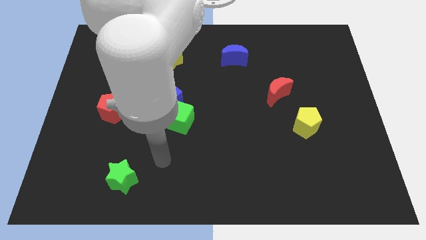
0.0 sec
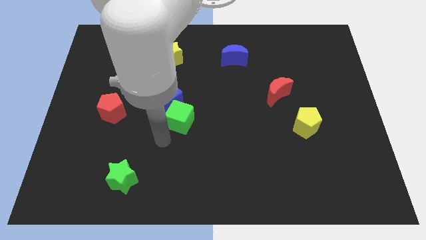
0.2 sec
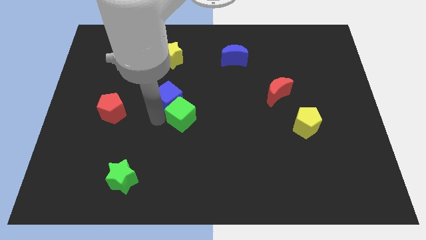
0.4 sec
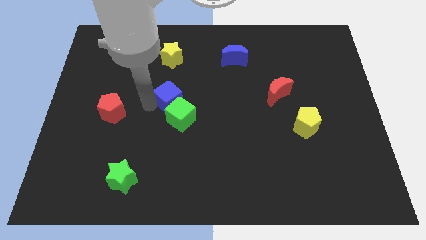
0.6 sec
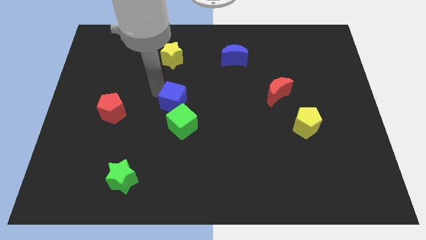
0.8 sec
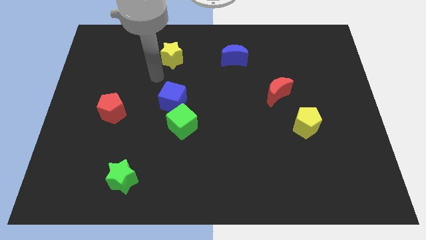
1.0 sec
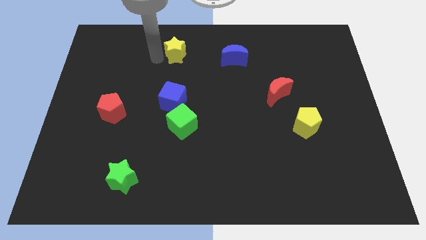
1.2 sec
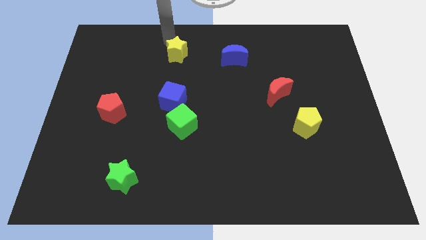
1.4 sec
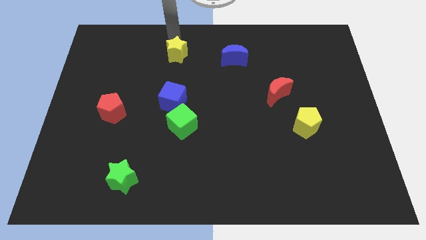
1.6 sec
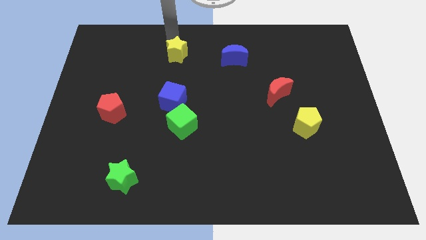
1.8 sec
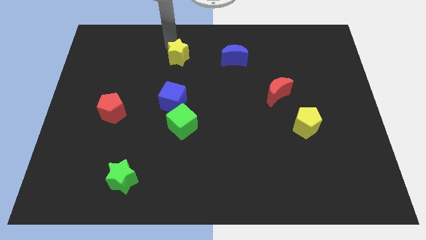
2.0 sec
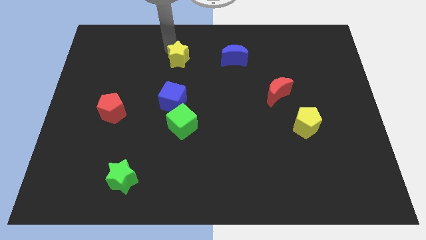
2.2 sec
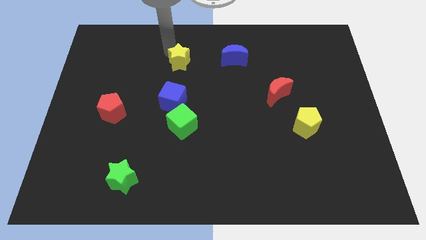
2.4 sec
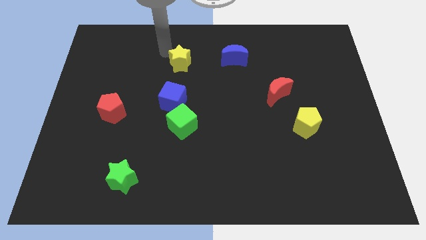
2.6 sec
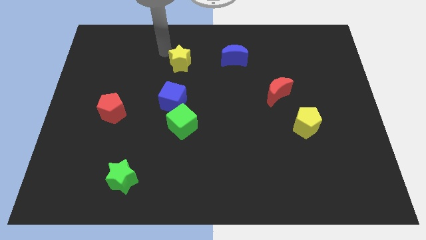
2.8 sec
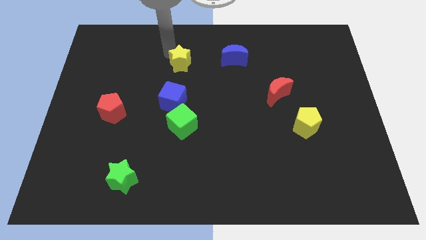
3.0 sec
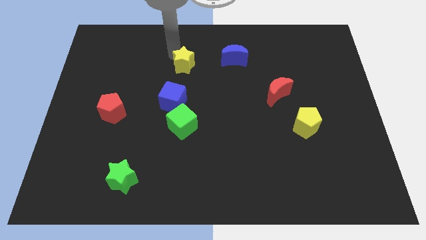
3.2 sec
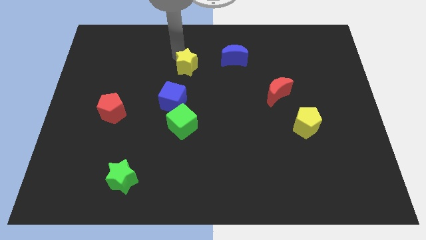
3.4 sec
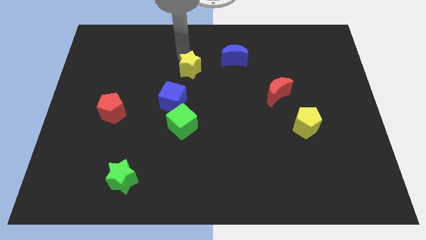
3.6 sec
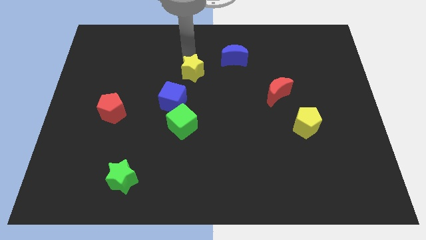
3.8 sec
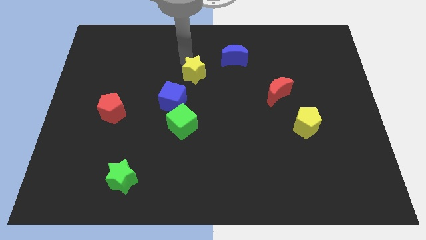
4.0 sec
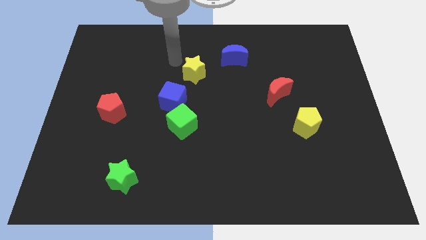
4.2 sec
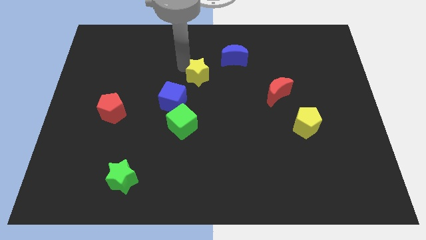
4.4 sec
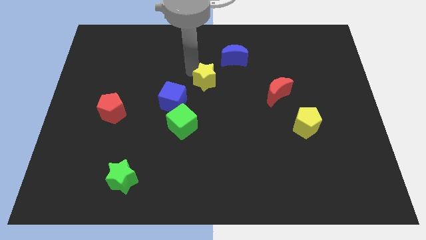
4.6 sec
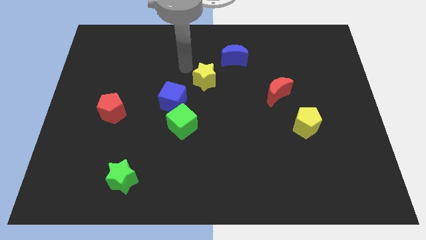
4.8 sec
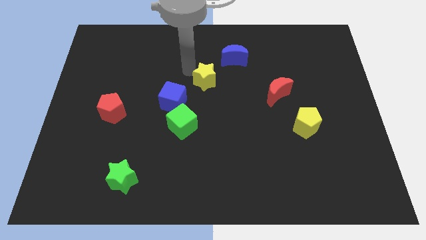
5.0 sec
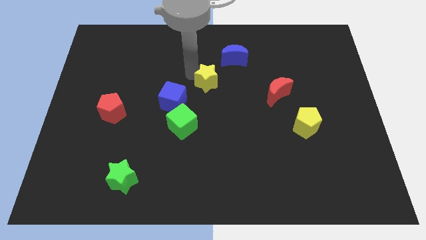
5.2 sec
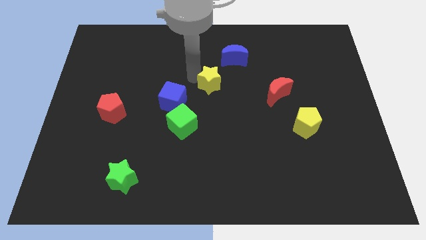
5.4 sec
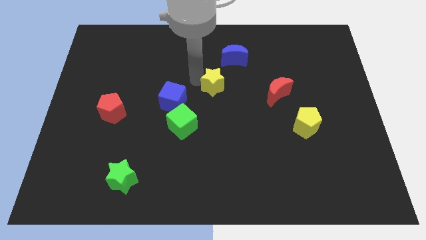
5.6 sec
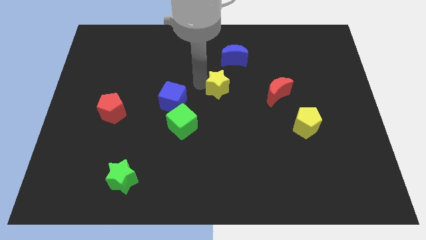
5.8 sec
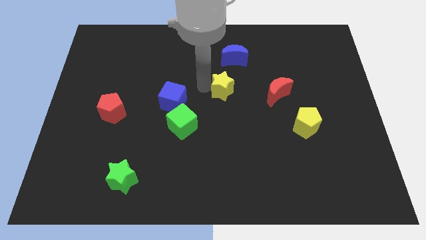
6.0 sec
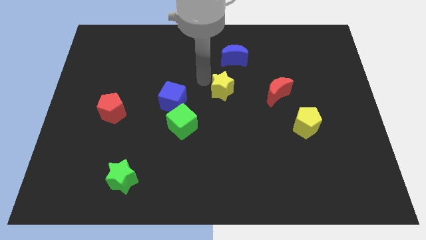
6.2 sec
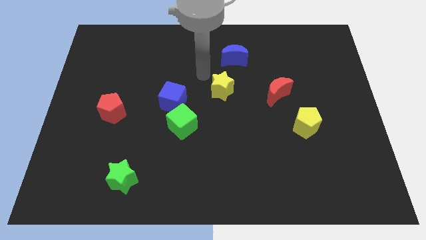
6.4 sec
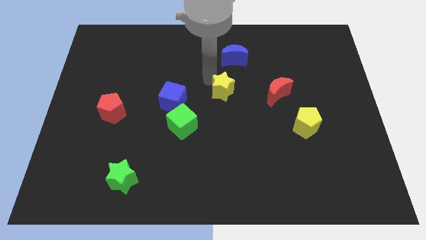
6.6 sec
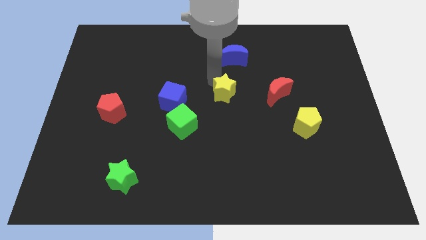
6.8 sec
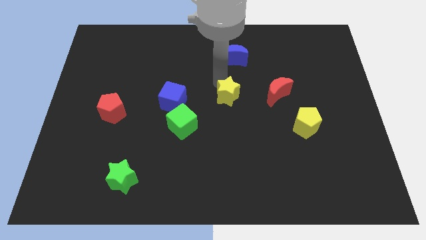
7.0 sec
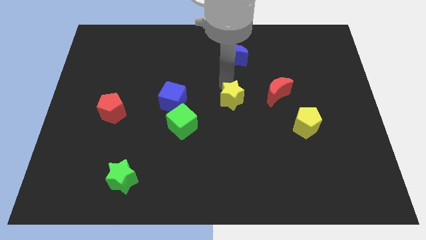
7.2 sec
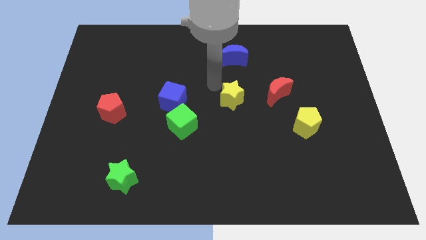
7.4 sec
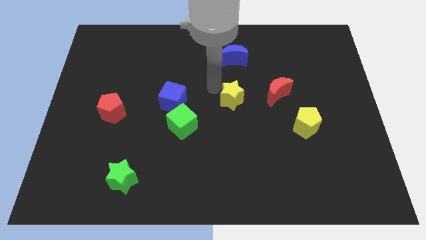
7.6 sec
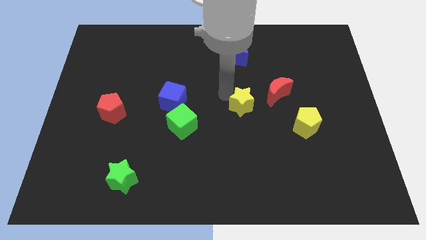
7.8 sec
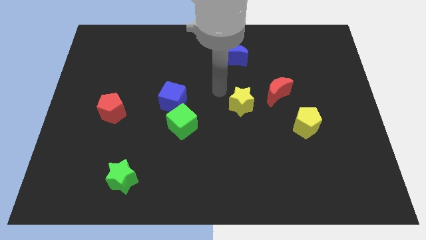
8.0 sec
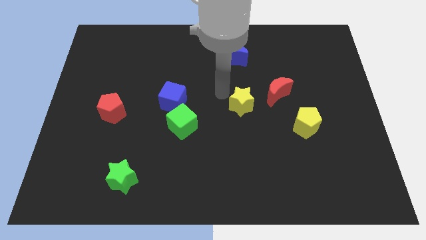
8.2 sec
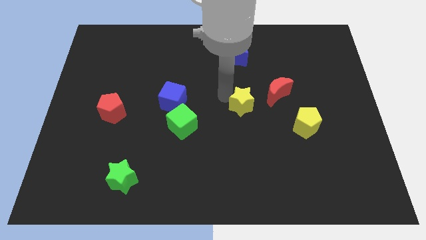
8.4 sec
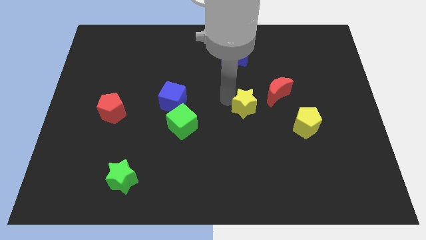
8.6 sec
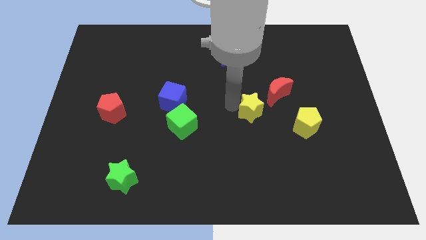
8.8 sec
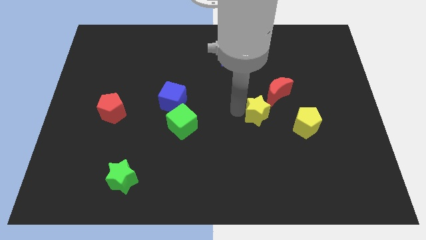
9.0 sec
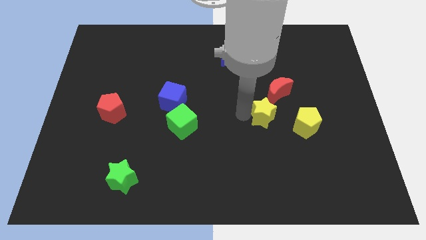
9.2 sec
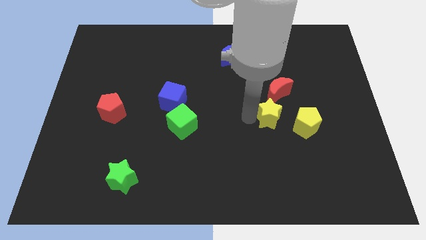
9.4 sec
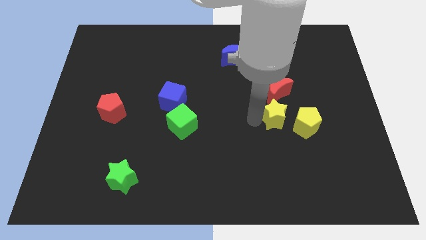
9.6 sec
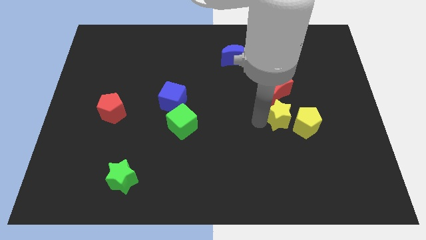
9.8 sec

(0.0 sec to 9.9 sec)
put the yellow star next to the yellow pentagon

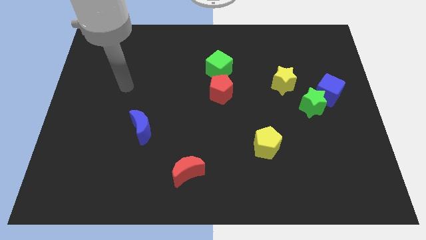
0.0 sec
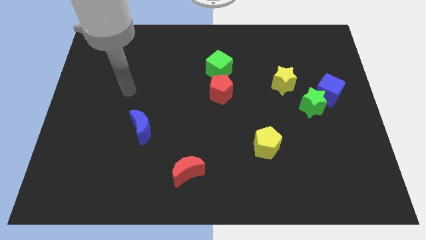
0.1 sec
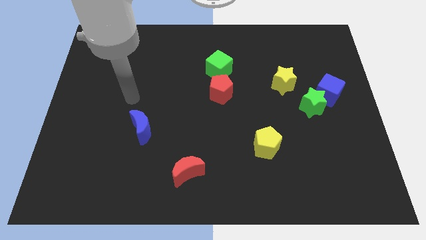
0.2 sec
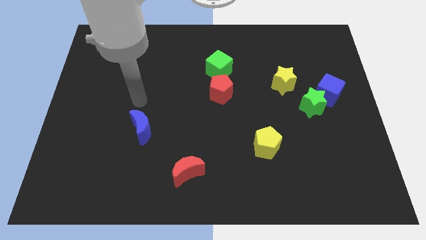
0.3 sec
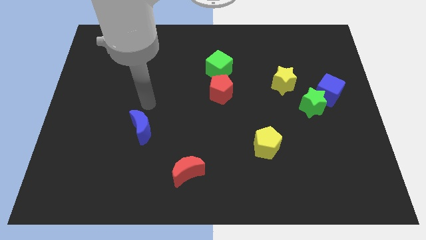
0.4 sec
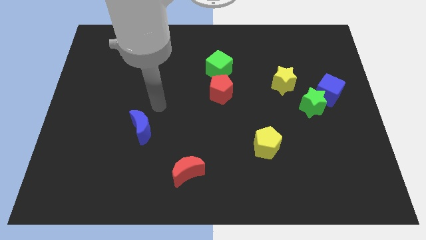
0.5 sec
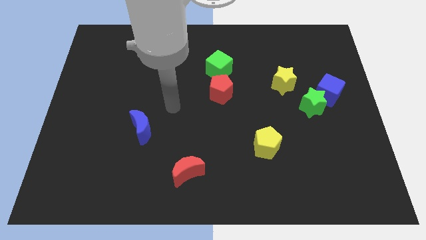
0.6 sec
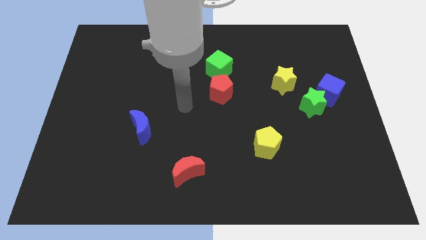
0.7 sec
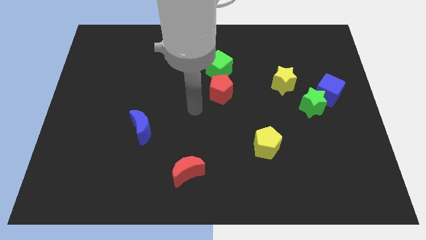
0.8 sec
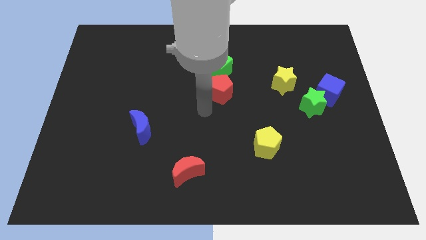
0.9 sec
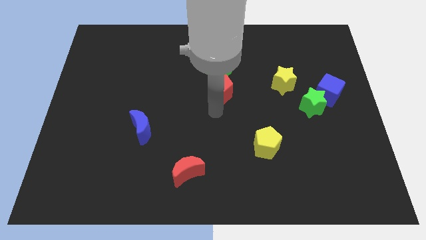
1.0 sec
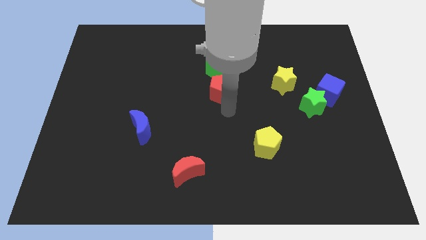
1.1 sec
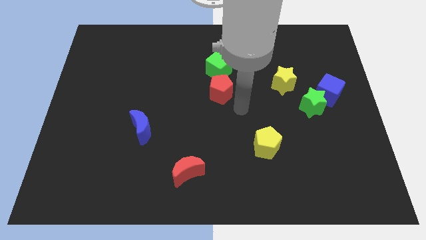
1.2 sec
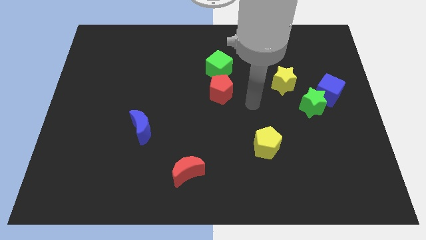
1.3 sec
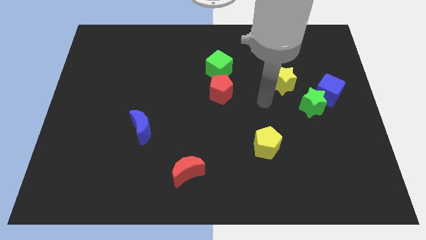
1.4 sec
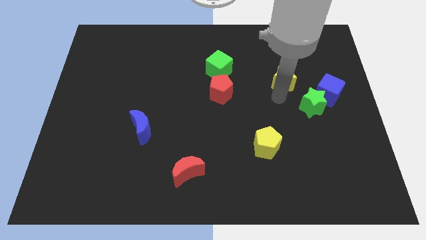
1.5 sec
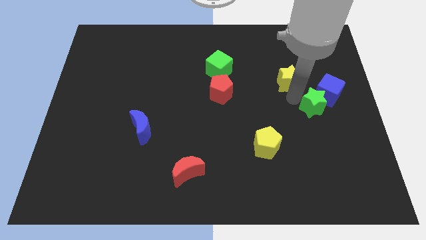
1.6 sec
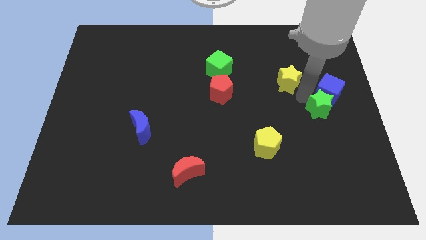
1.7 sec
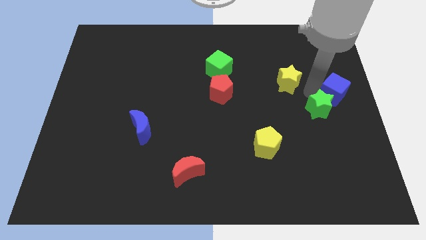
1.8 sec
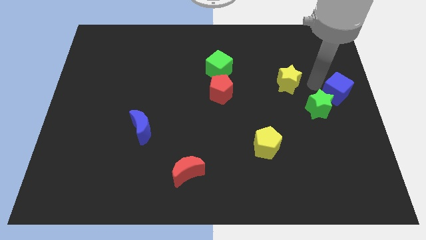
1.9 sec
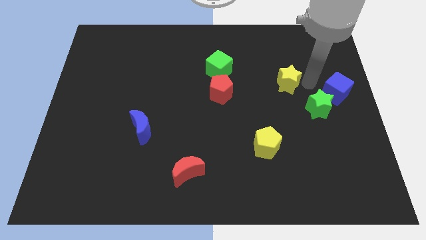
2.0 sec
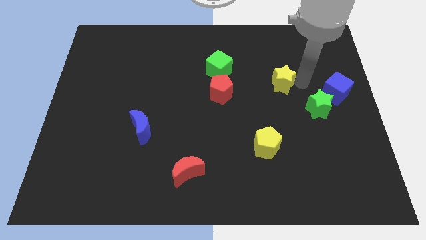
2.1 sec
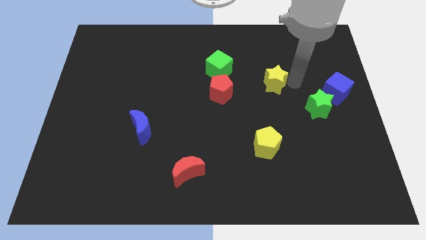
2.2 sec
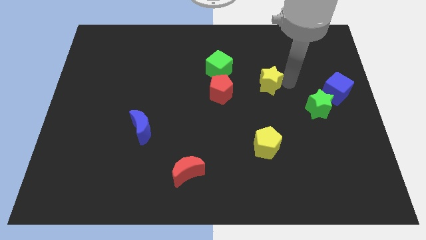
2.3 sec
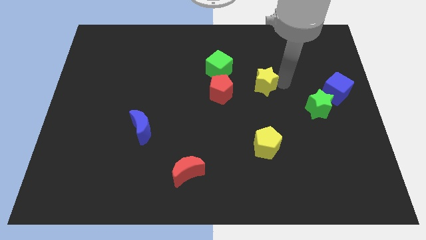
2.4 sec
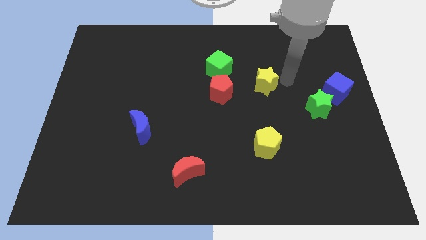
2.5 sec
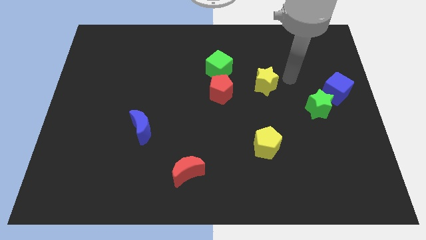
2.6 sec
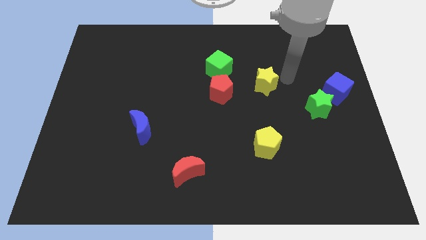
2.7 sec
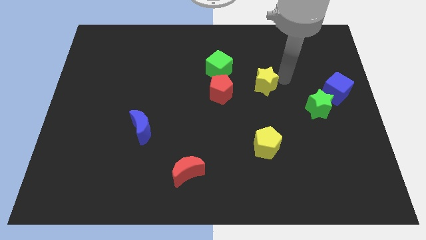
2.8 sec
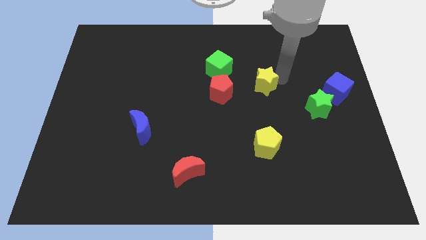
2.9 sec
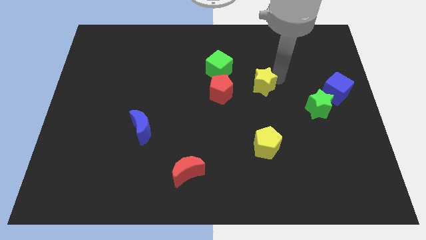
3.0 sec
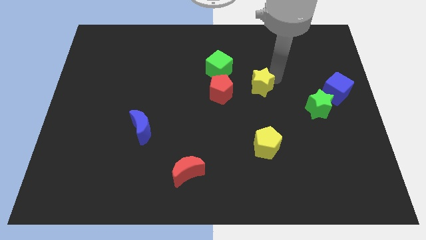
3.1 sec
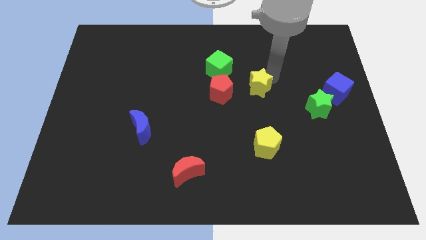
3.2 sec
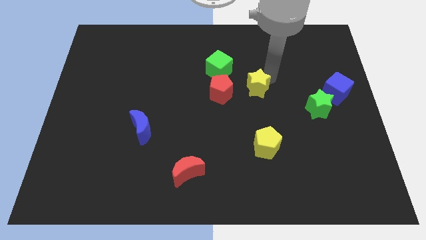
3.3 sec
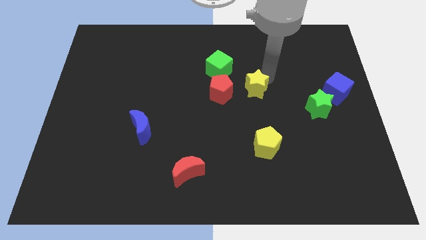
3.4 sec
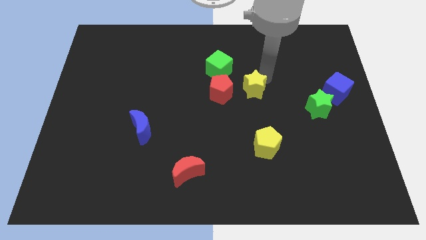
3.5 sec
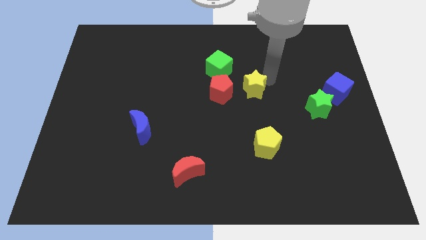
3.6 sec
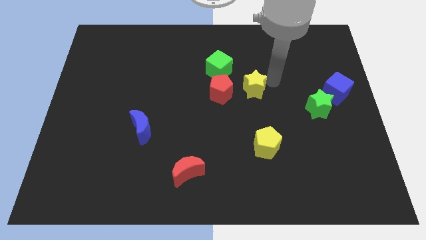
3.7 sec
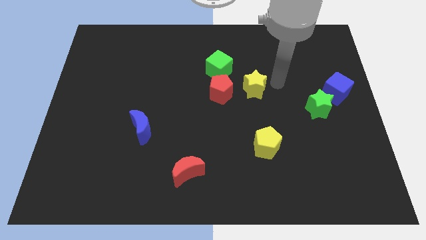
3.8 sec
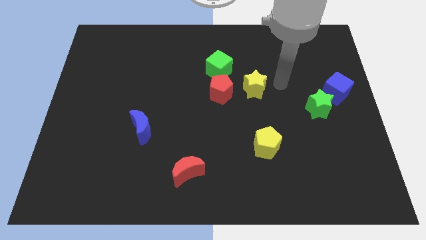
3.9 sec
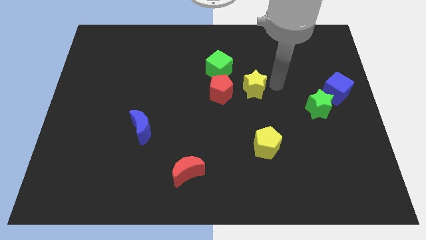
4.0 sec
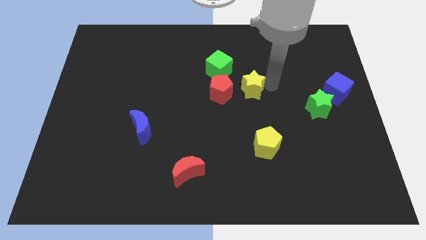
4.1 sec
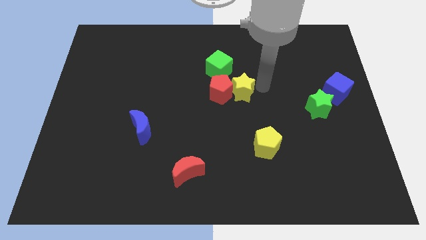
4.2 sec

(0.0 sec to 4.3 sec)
move the yellow star next to the red pentagon
